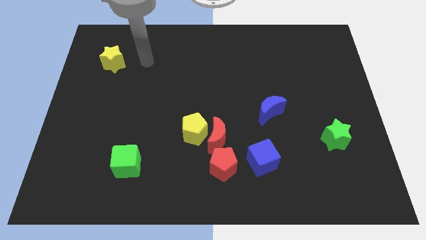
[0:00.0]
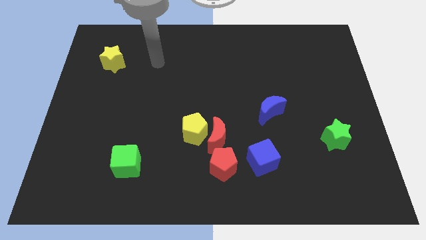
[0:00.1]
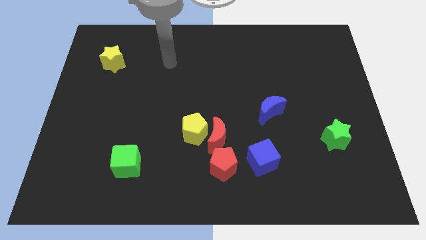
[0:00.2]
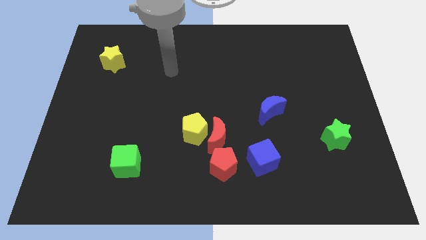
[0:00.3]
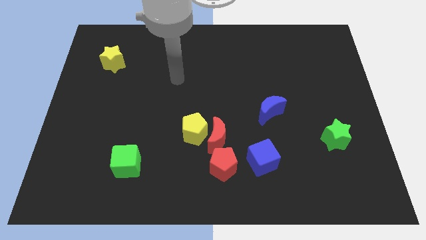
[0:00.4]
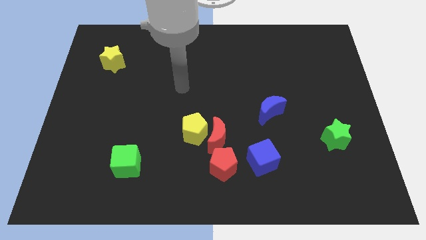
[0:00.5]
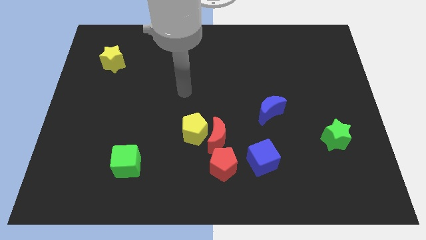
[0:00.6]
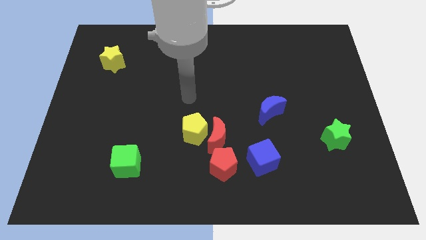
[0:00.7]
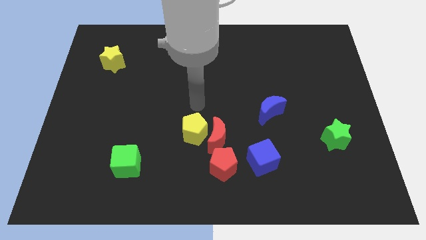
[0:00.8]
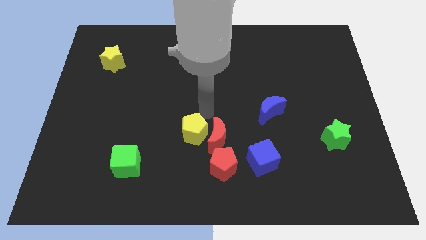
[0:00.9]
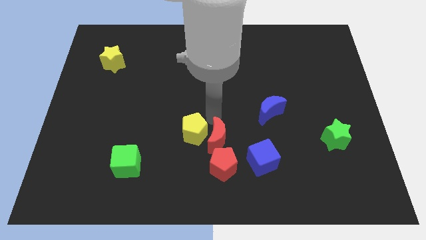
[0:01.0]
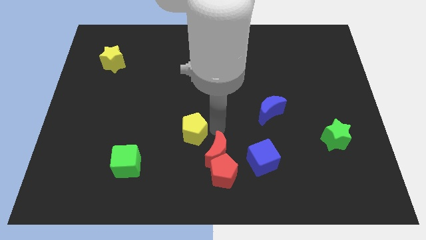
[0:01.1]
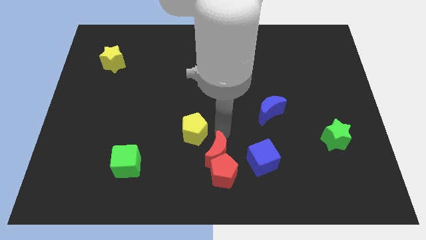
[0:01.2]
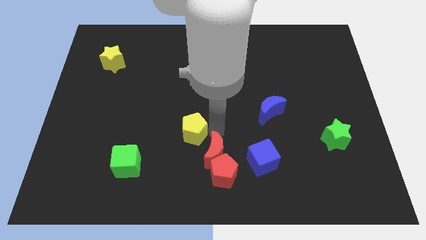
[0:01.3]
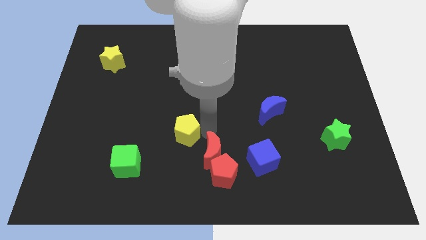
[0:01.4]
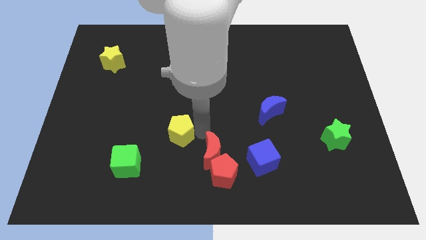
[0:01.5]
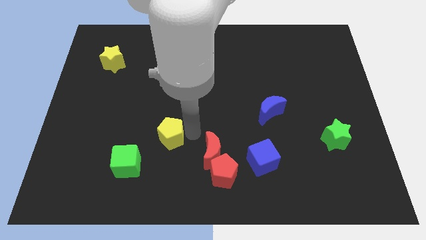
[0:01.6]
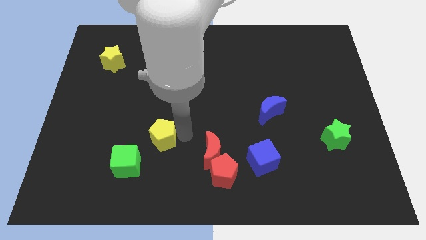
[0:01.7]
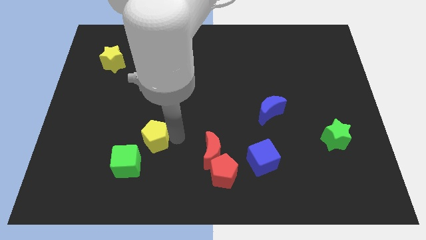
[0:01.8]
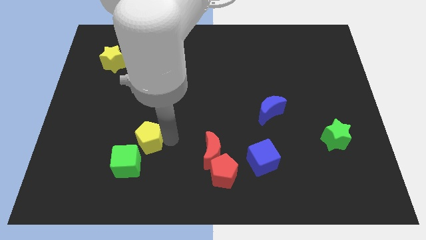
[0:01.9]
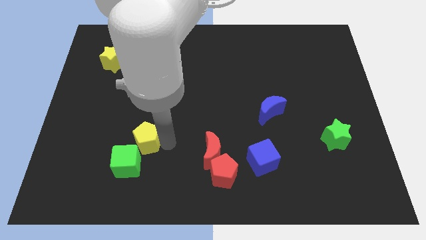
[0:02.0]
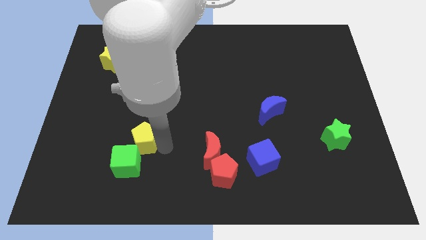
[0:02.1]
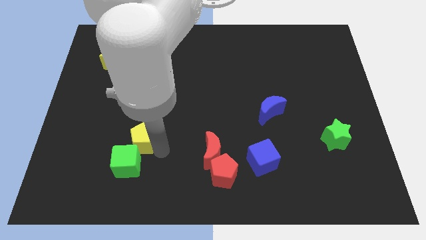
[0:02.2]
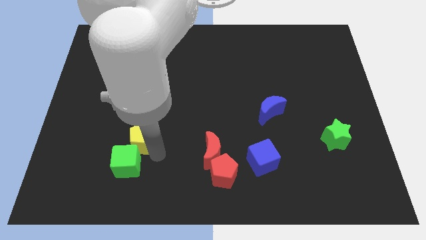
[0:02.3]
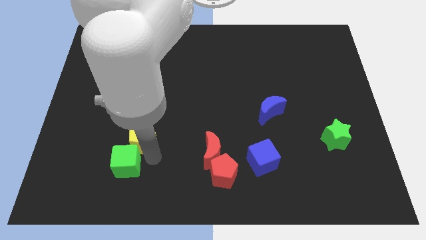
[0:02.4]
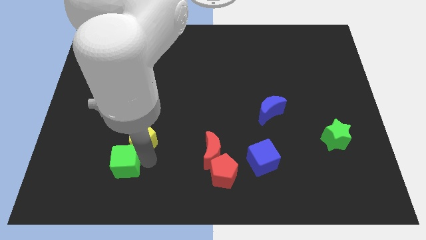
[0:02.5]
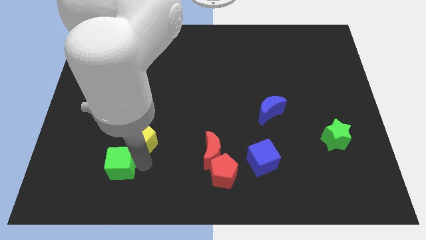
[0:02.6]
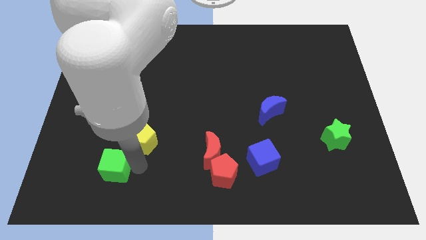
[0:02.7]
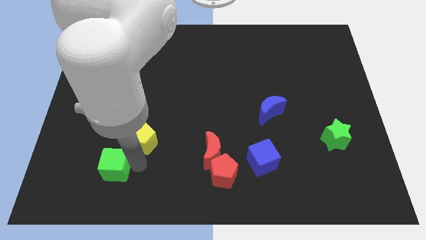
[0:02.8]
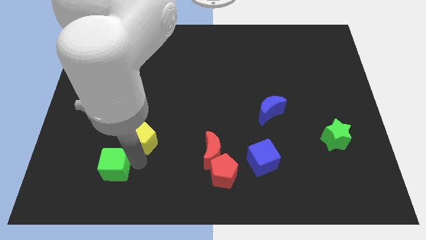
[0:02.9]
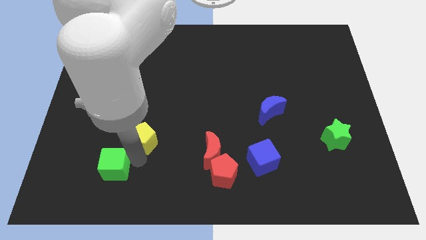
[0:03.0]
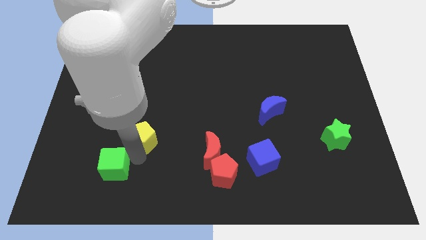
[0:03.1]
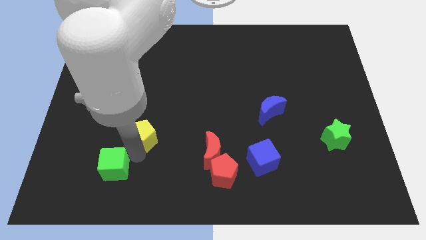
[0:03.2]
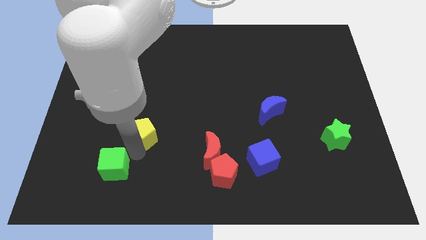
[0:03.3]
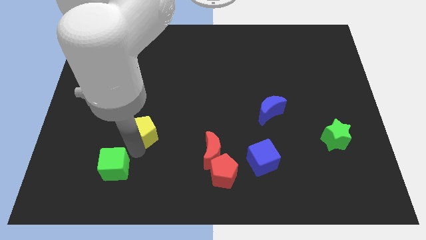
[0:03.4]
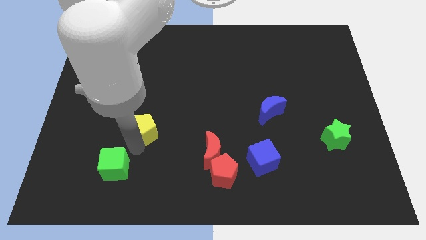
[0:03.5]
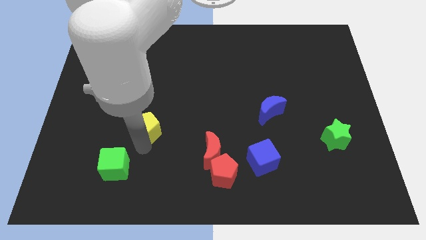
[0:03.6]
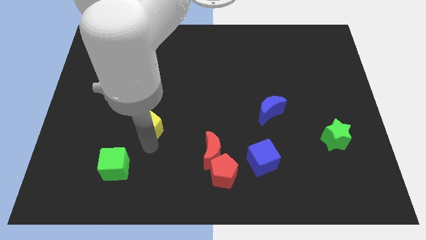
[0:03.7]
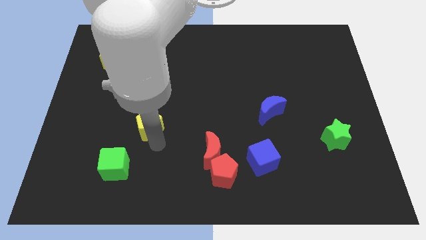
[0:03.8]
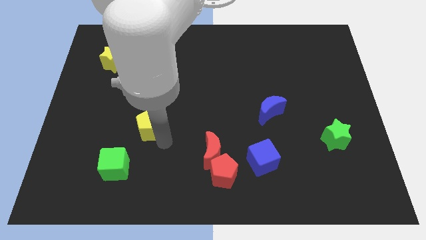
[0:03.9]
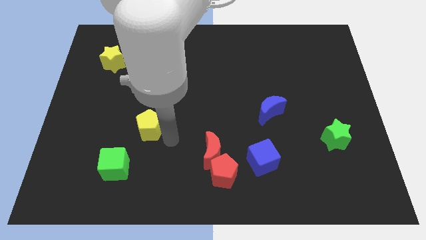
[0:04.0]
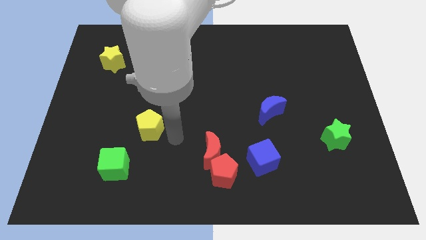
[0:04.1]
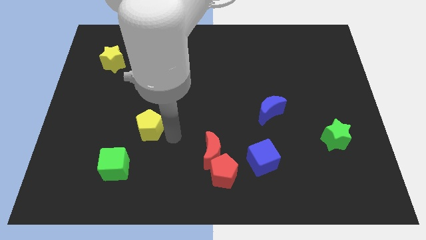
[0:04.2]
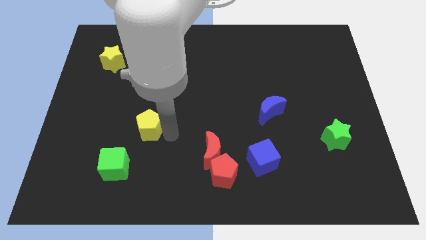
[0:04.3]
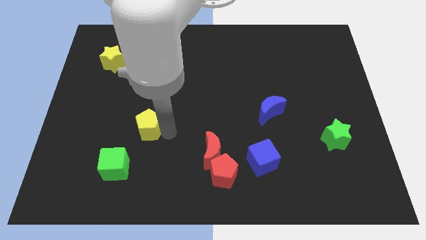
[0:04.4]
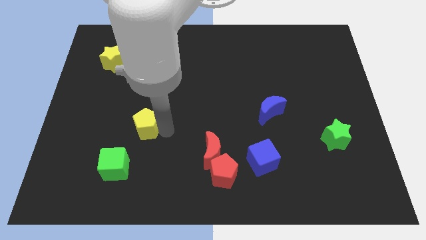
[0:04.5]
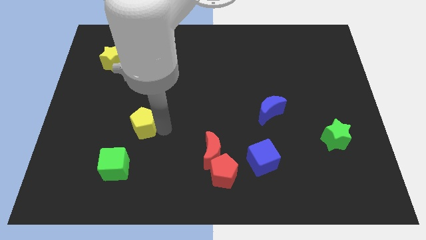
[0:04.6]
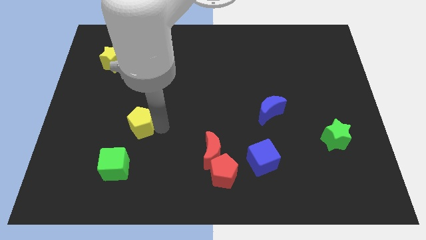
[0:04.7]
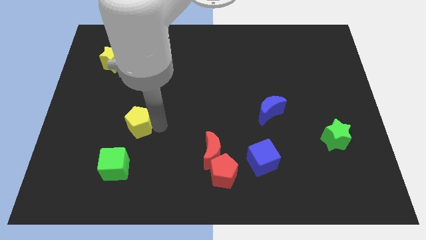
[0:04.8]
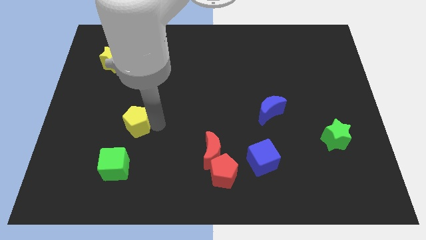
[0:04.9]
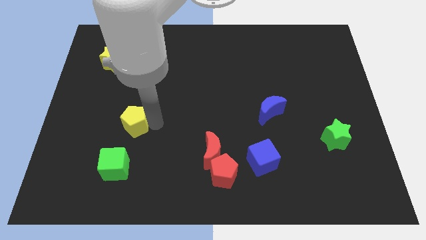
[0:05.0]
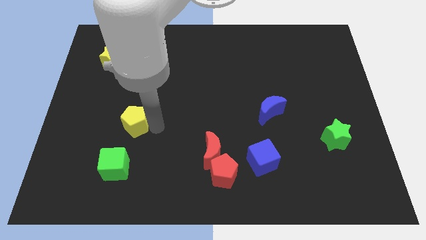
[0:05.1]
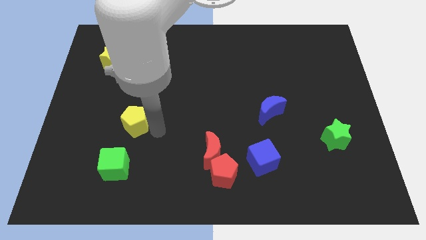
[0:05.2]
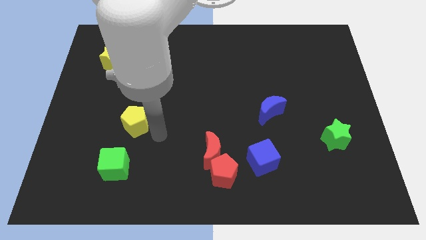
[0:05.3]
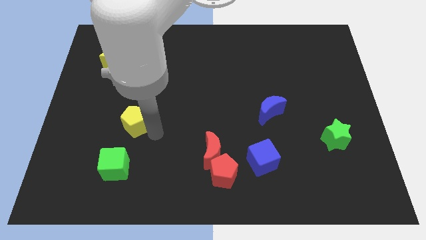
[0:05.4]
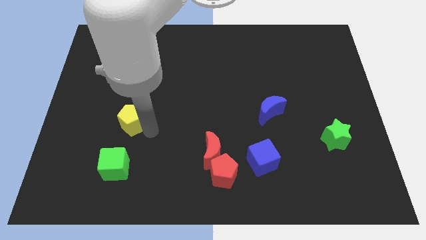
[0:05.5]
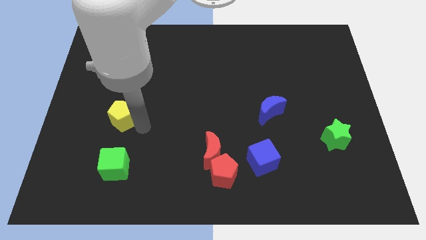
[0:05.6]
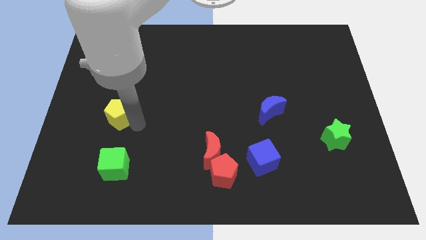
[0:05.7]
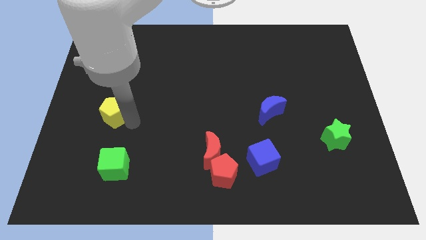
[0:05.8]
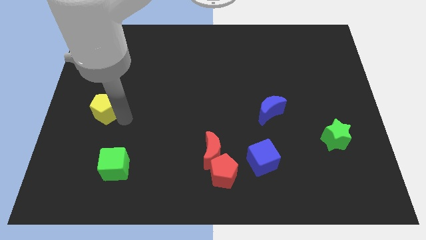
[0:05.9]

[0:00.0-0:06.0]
move the yellow pentagon to the center left
